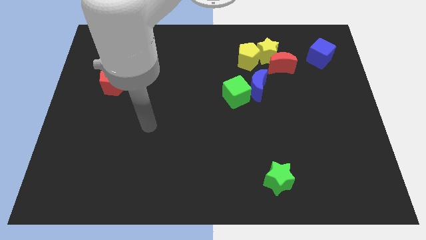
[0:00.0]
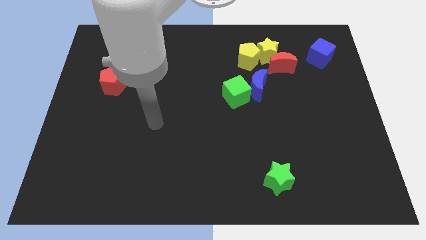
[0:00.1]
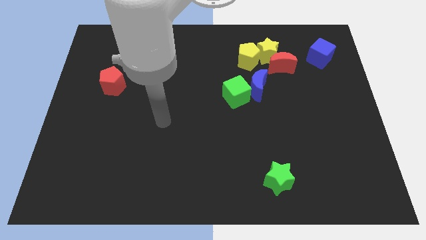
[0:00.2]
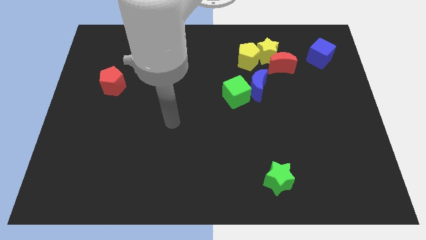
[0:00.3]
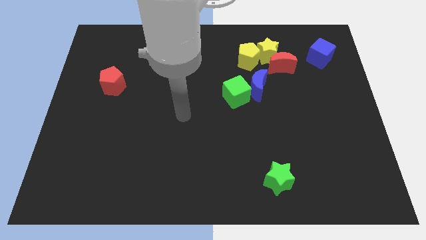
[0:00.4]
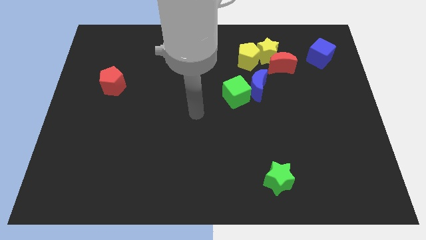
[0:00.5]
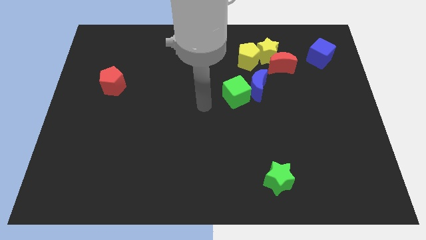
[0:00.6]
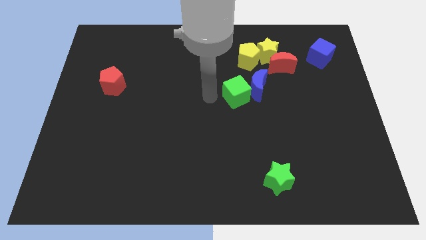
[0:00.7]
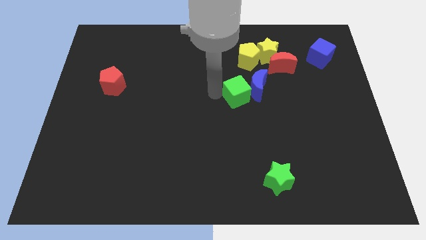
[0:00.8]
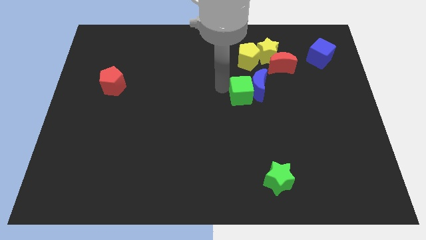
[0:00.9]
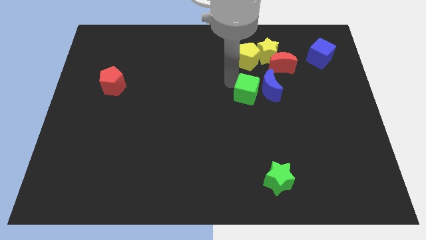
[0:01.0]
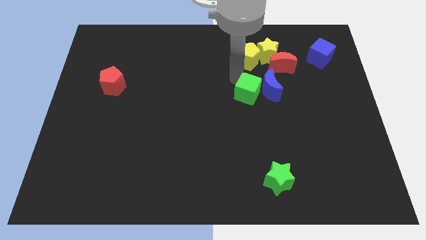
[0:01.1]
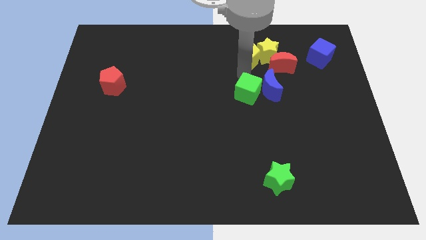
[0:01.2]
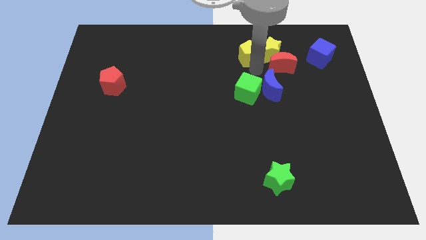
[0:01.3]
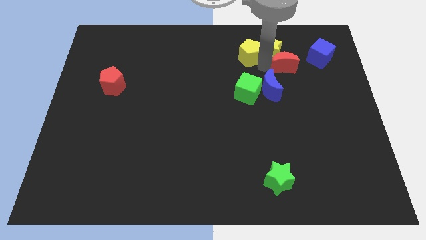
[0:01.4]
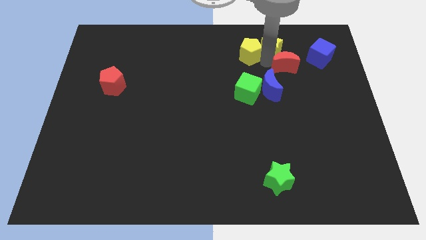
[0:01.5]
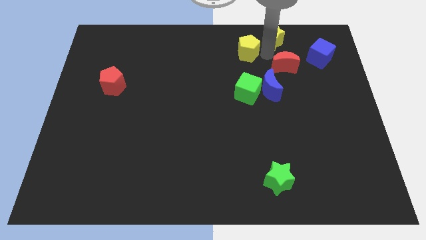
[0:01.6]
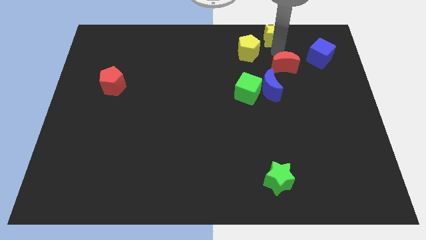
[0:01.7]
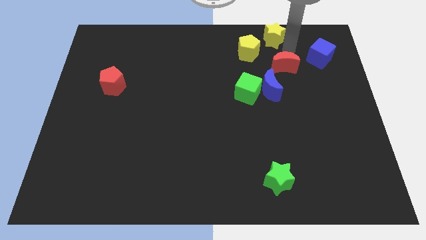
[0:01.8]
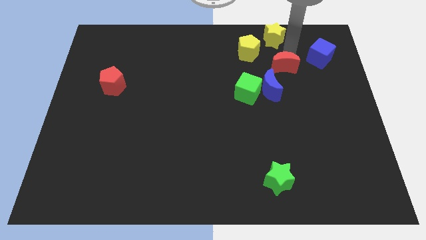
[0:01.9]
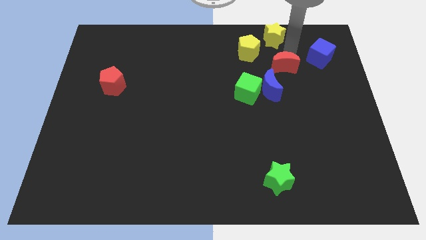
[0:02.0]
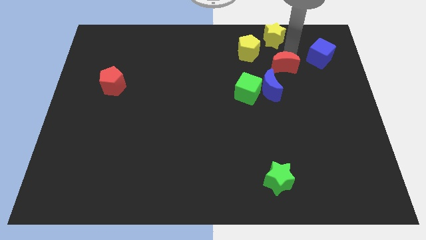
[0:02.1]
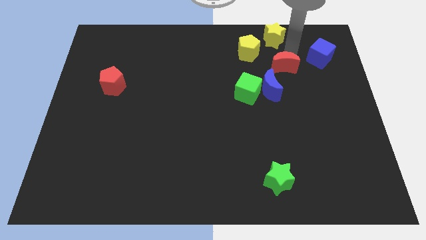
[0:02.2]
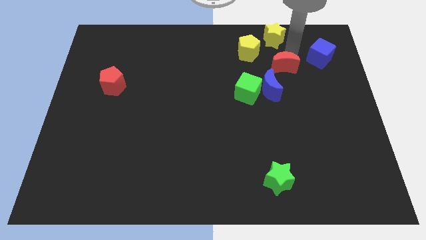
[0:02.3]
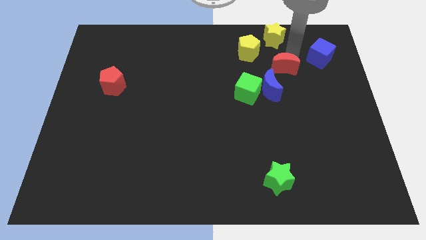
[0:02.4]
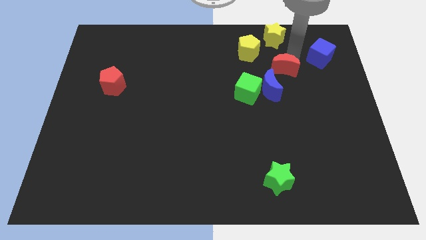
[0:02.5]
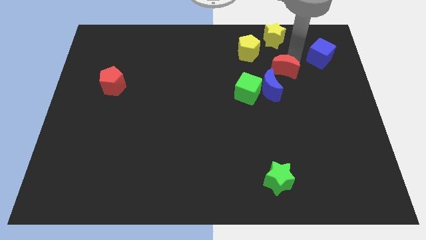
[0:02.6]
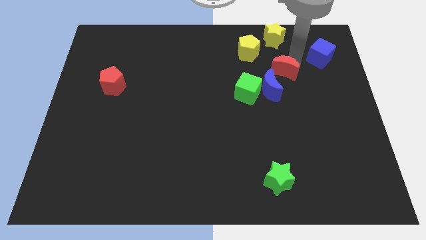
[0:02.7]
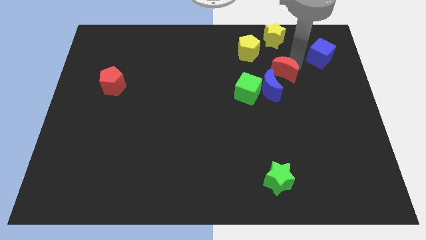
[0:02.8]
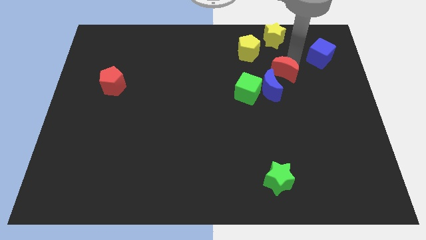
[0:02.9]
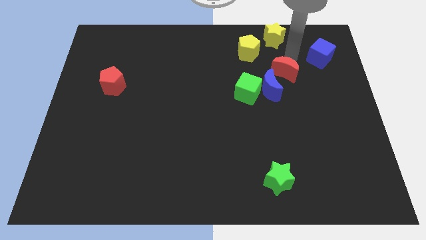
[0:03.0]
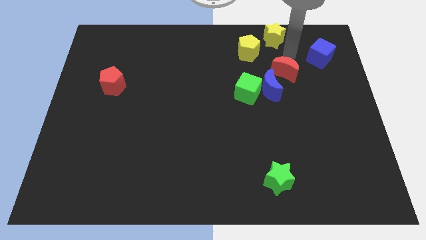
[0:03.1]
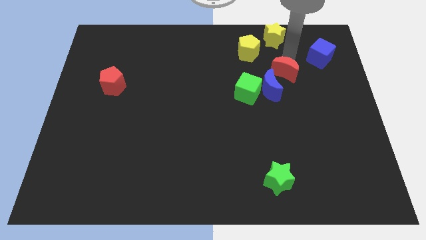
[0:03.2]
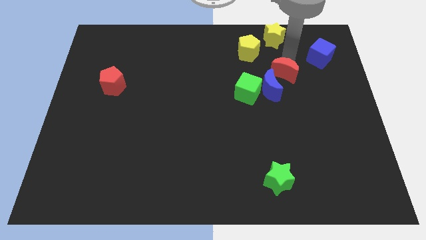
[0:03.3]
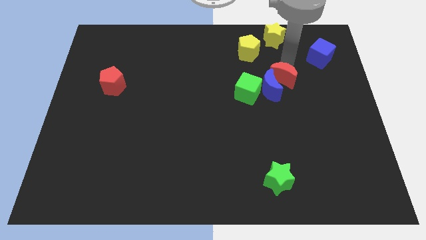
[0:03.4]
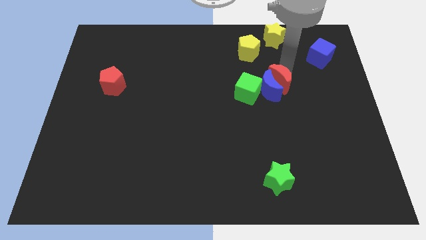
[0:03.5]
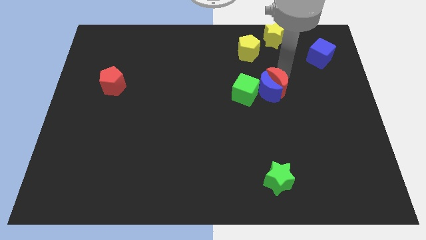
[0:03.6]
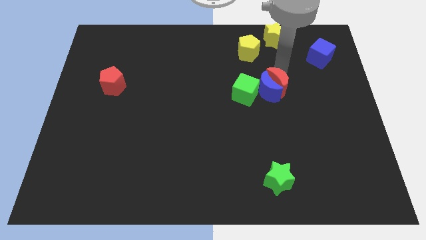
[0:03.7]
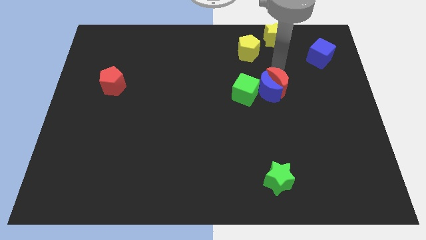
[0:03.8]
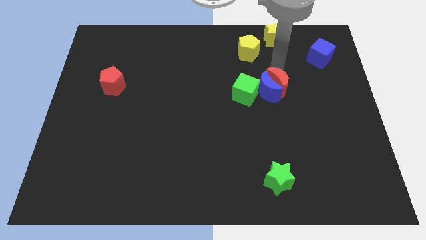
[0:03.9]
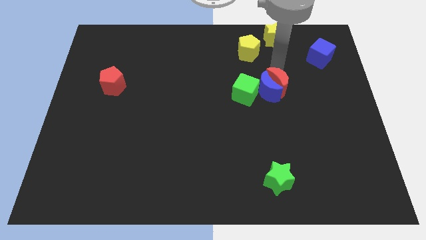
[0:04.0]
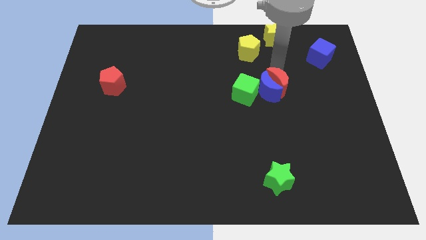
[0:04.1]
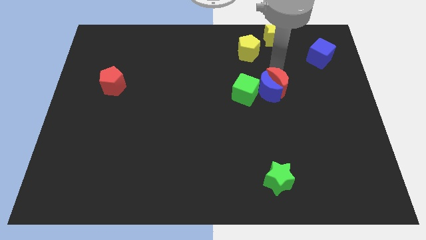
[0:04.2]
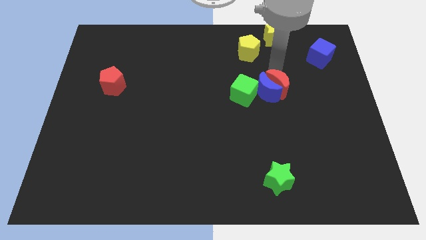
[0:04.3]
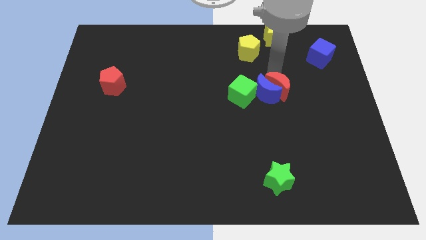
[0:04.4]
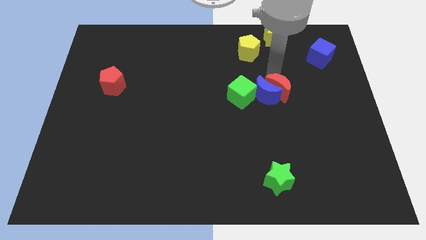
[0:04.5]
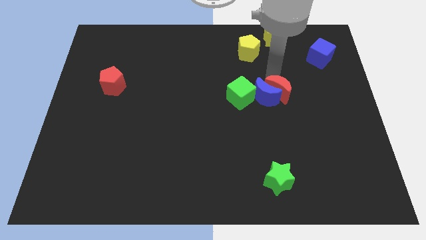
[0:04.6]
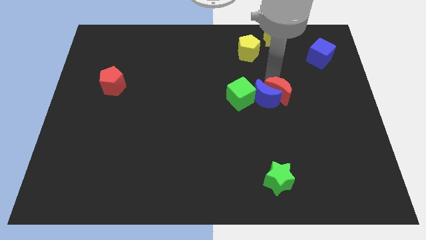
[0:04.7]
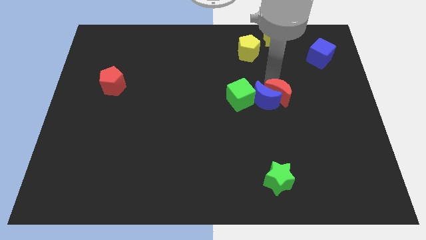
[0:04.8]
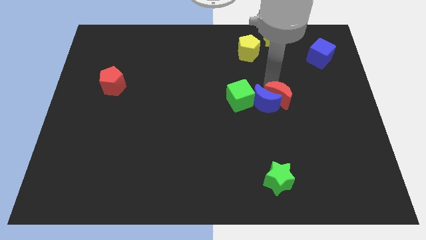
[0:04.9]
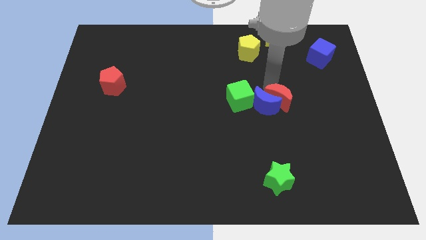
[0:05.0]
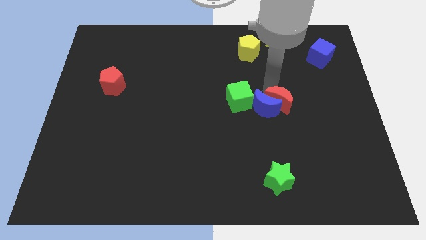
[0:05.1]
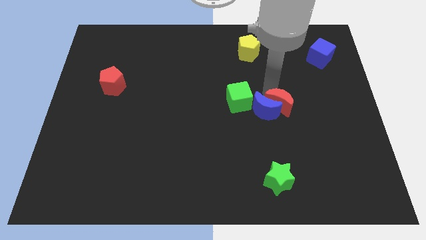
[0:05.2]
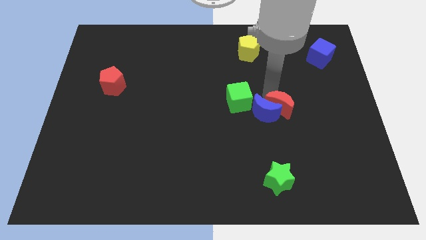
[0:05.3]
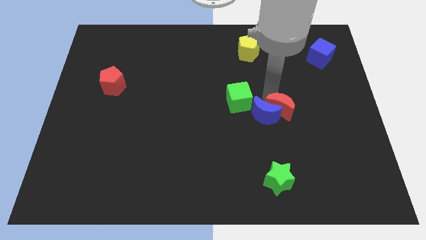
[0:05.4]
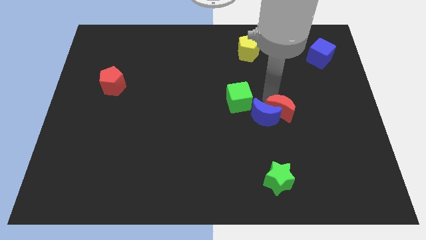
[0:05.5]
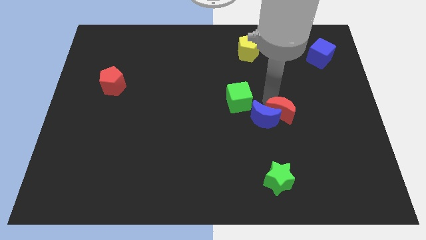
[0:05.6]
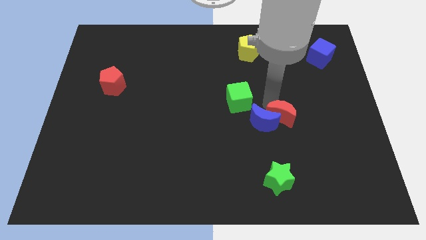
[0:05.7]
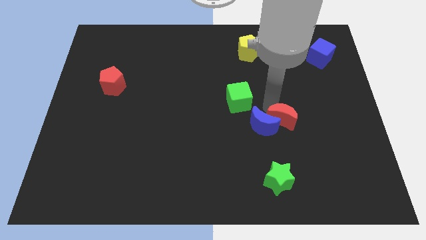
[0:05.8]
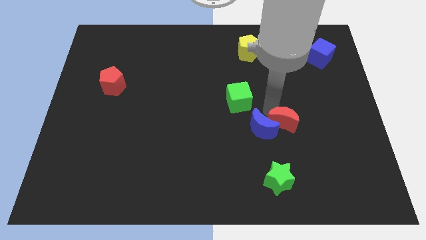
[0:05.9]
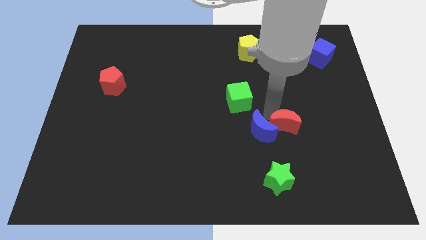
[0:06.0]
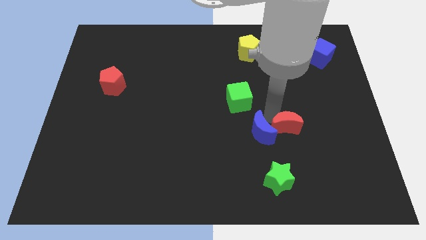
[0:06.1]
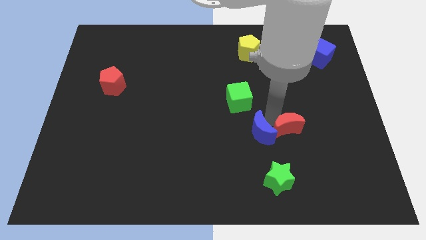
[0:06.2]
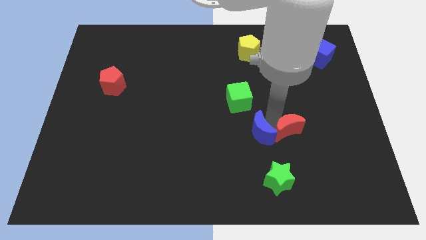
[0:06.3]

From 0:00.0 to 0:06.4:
push the red moon downwards

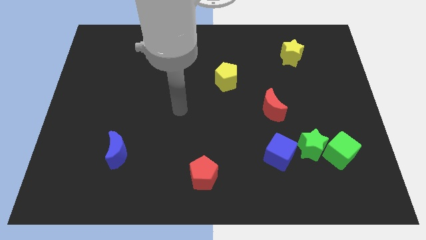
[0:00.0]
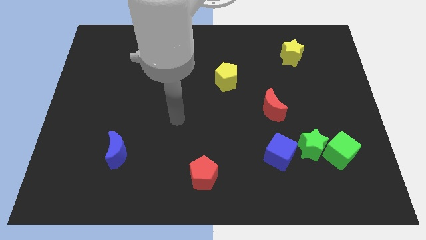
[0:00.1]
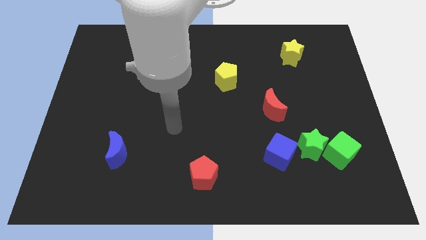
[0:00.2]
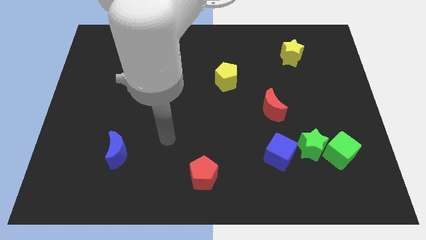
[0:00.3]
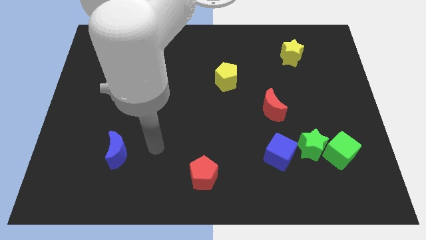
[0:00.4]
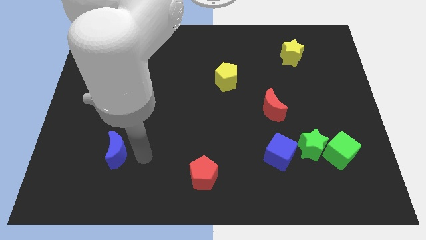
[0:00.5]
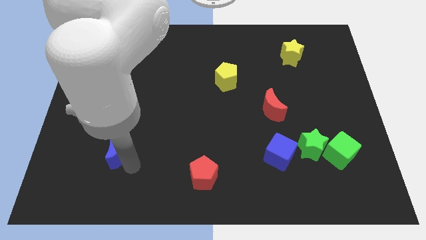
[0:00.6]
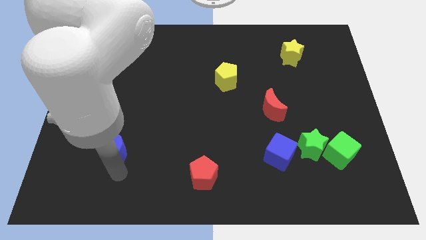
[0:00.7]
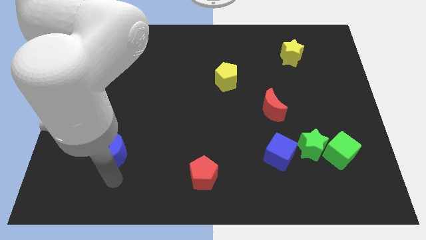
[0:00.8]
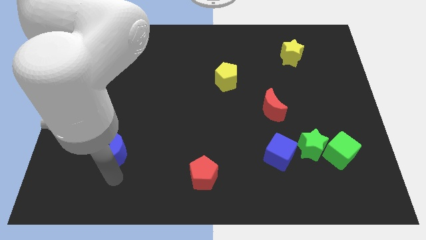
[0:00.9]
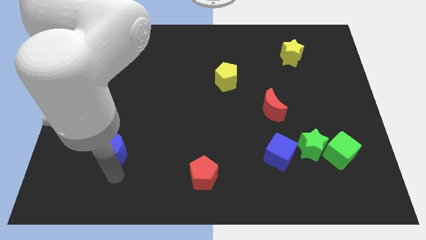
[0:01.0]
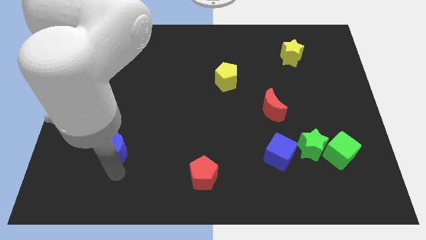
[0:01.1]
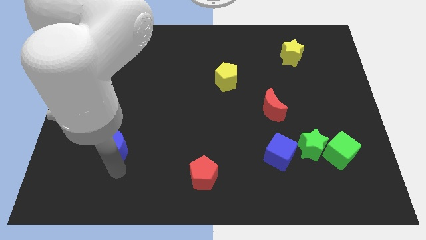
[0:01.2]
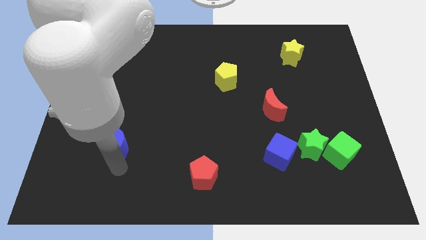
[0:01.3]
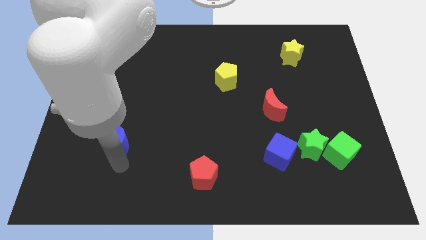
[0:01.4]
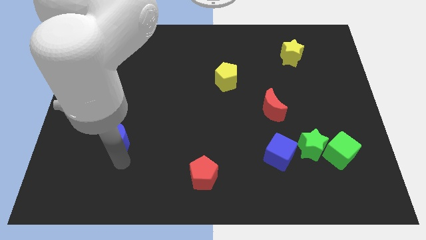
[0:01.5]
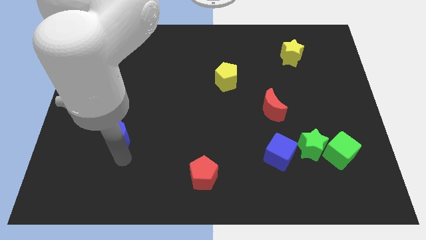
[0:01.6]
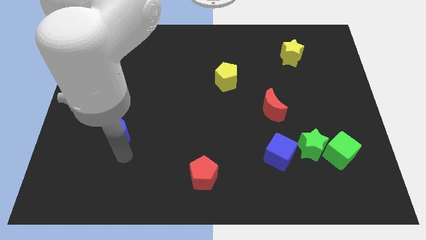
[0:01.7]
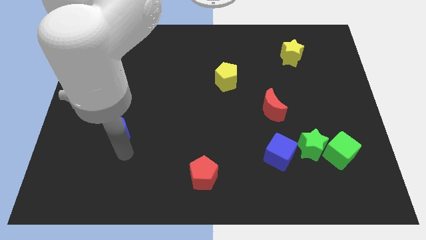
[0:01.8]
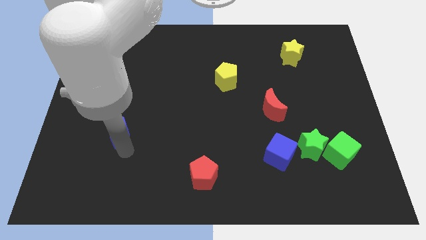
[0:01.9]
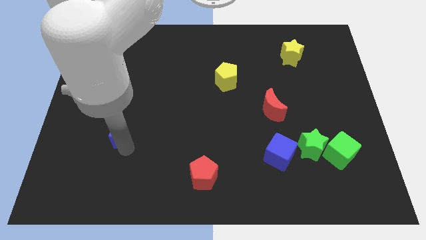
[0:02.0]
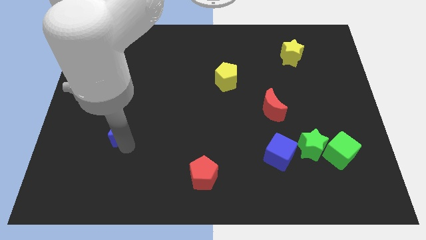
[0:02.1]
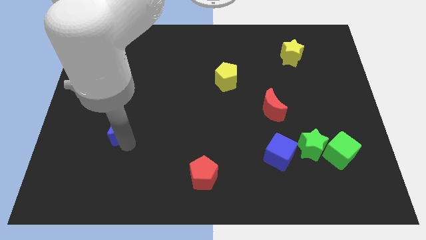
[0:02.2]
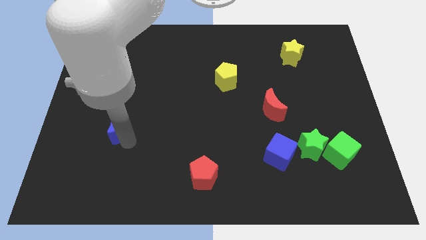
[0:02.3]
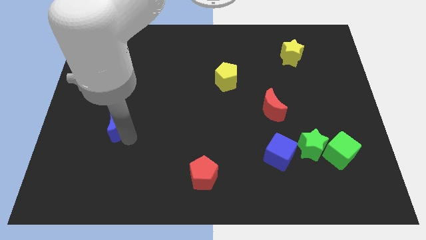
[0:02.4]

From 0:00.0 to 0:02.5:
move the blue moon upwards a little
